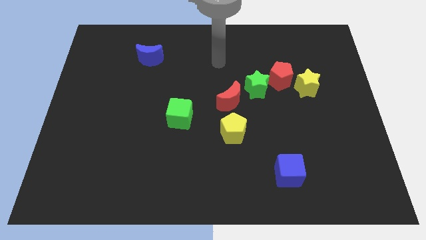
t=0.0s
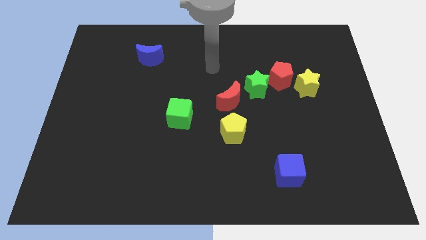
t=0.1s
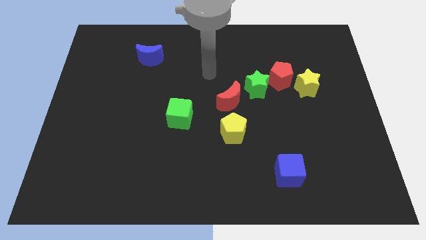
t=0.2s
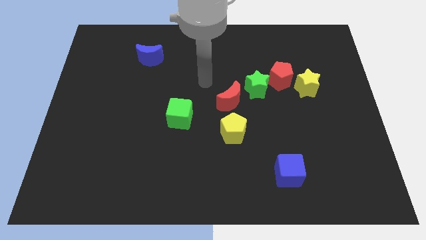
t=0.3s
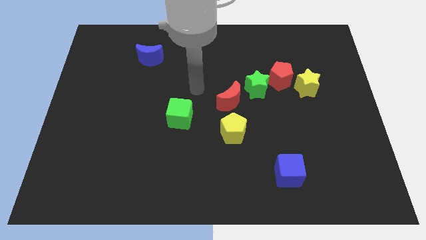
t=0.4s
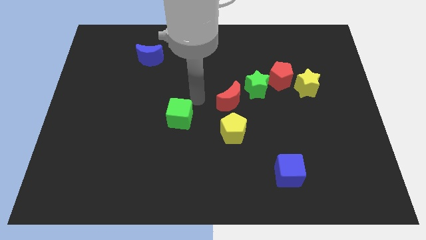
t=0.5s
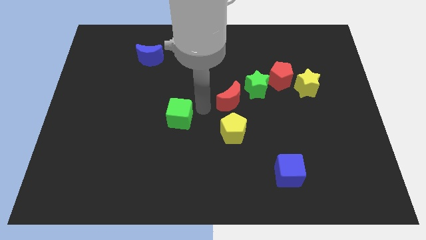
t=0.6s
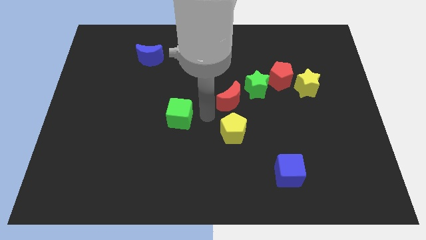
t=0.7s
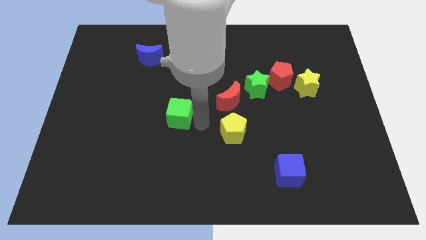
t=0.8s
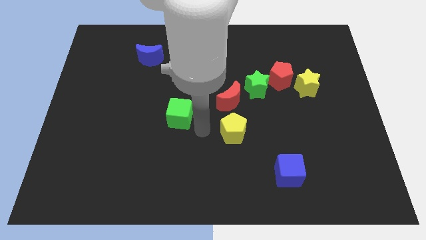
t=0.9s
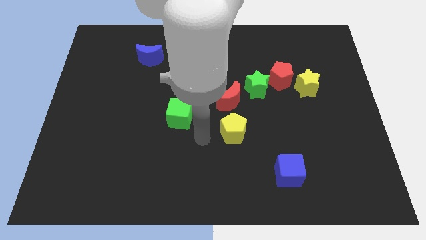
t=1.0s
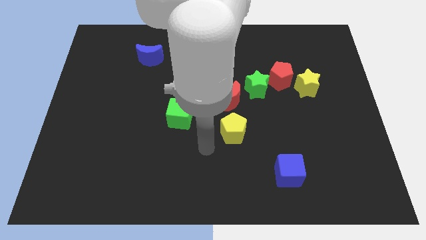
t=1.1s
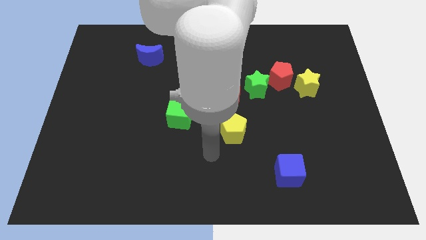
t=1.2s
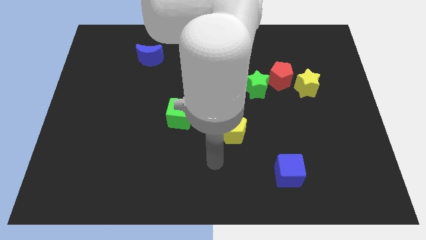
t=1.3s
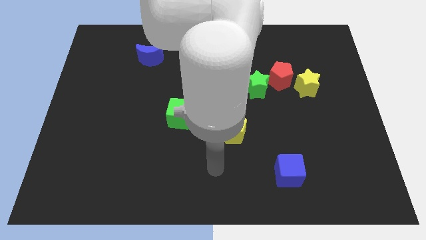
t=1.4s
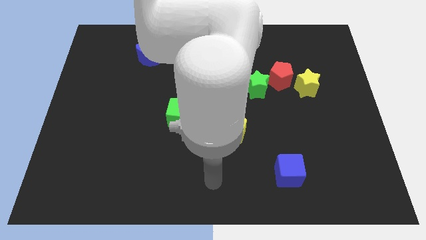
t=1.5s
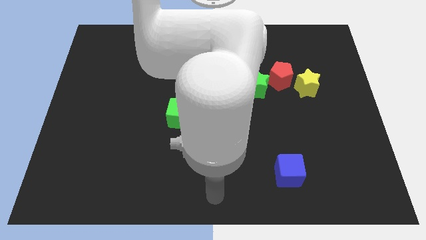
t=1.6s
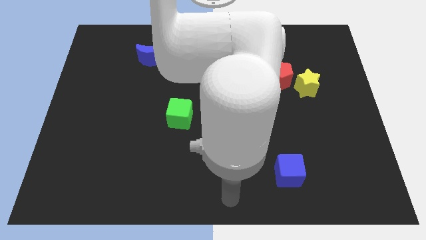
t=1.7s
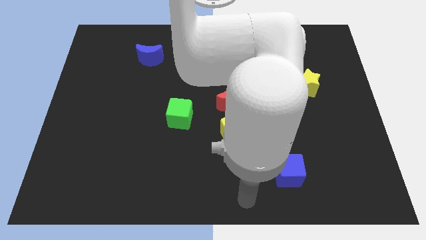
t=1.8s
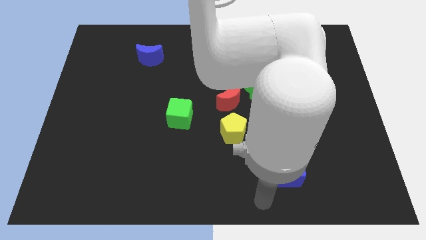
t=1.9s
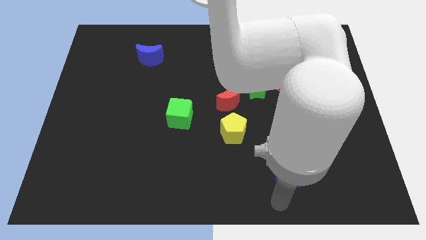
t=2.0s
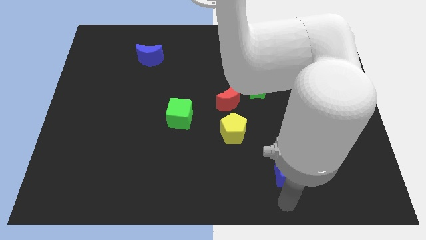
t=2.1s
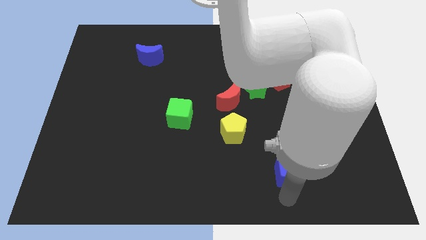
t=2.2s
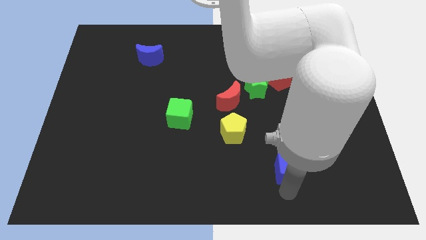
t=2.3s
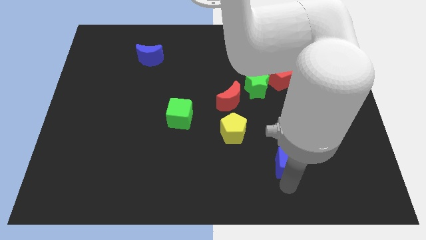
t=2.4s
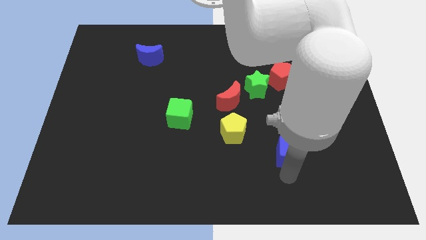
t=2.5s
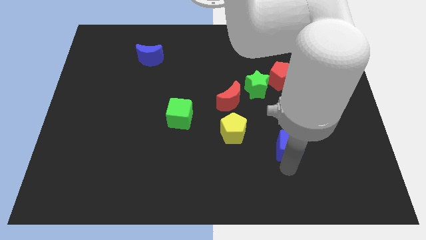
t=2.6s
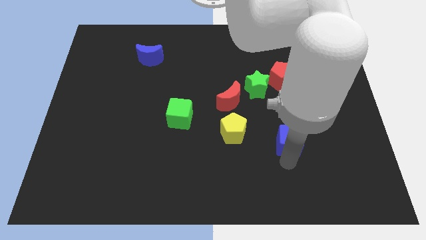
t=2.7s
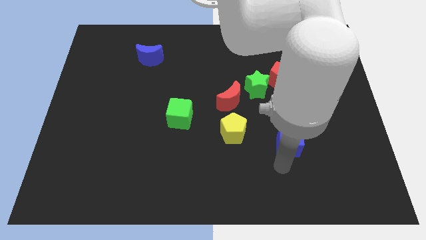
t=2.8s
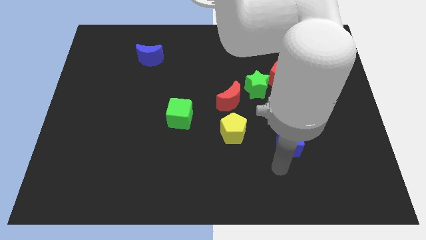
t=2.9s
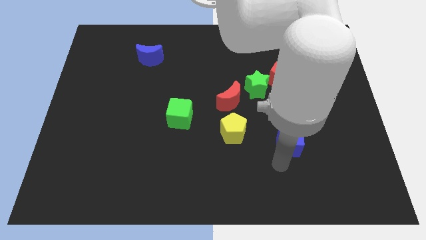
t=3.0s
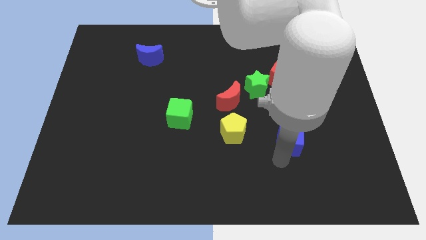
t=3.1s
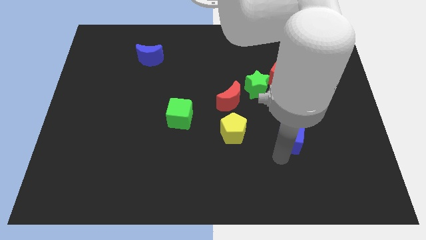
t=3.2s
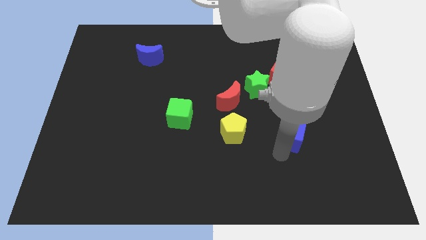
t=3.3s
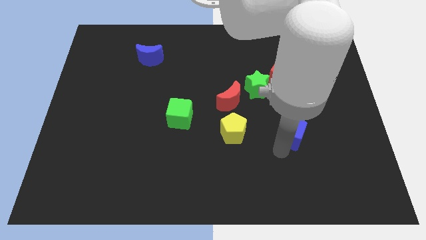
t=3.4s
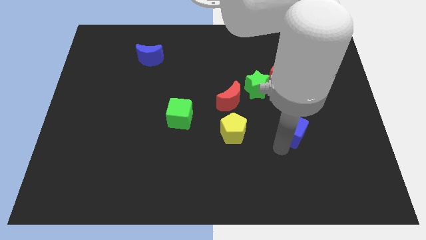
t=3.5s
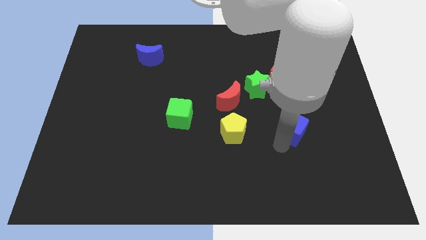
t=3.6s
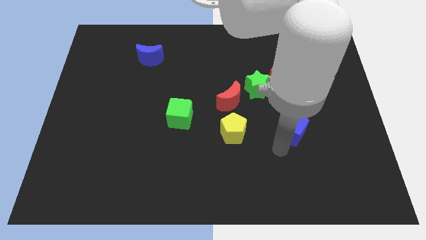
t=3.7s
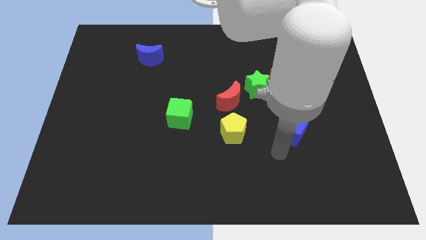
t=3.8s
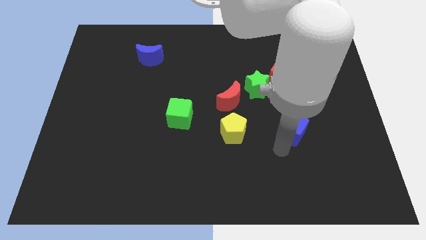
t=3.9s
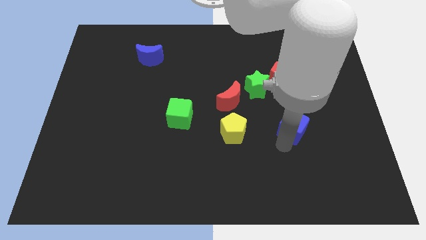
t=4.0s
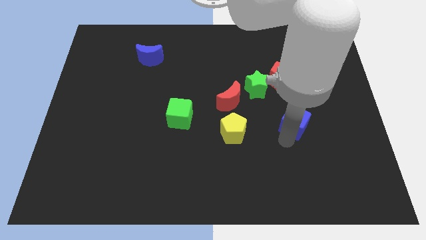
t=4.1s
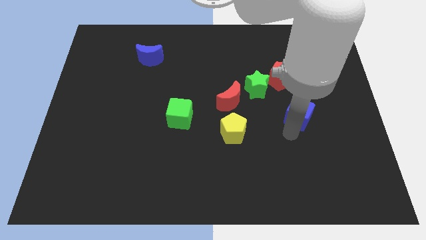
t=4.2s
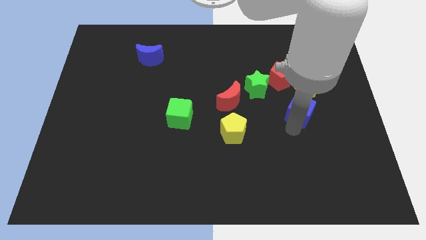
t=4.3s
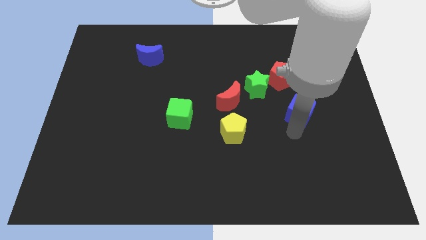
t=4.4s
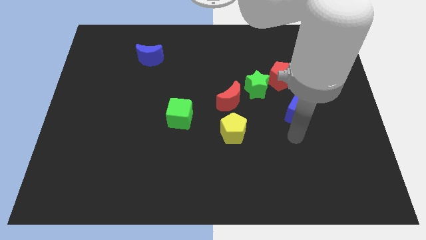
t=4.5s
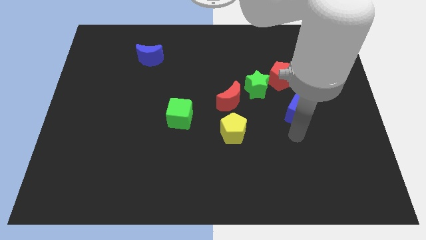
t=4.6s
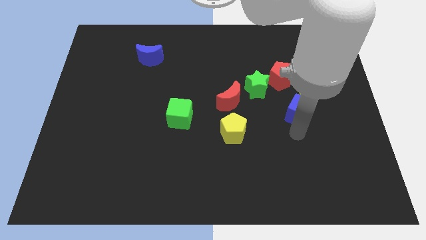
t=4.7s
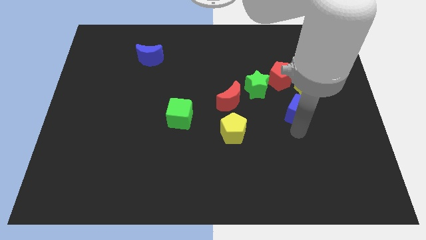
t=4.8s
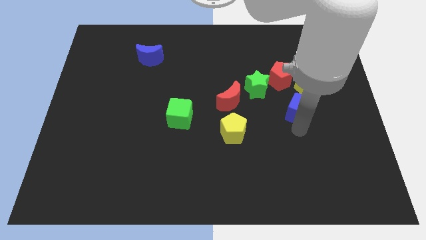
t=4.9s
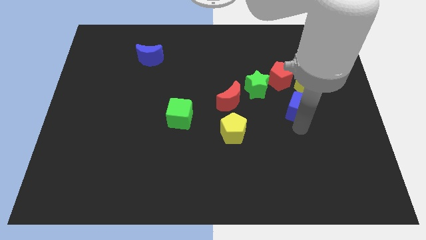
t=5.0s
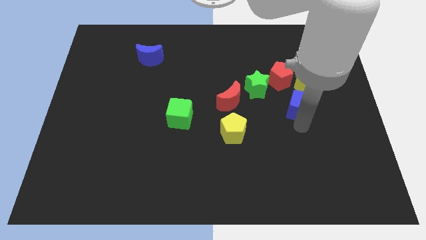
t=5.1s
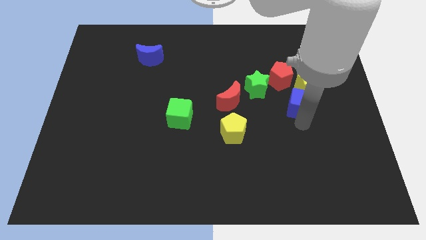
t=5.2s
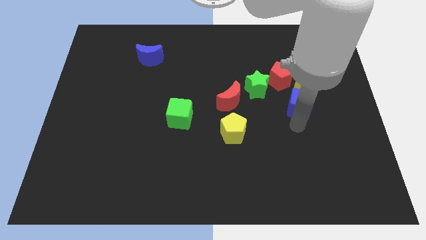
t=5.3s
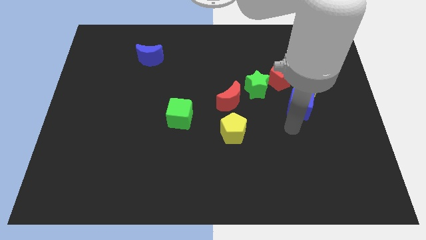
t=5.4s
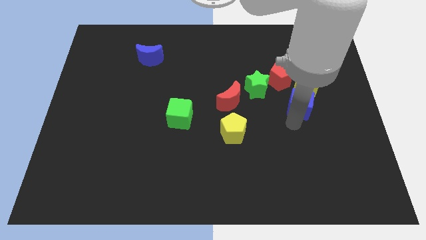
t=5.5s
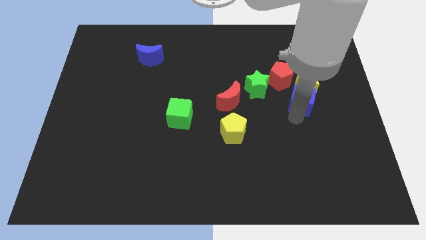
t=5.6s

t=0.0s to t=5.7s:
push the blue cube towards the yellow star

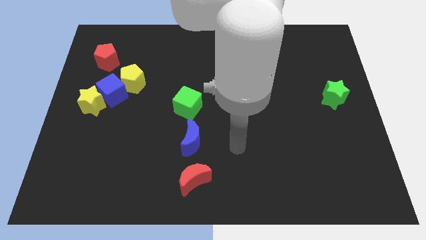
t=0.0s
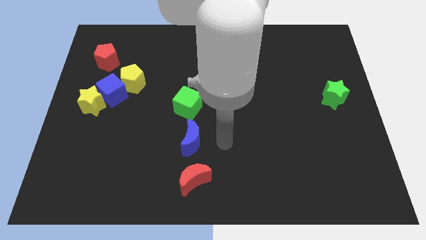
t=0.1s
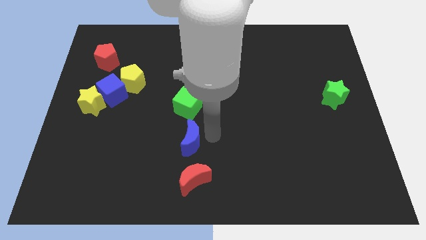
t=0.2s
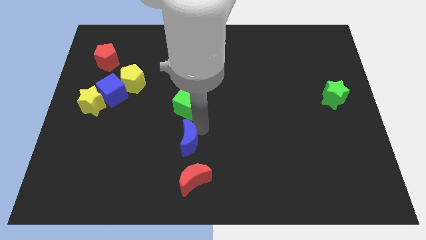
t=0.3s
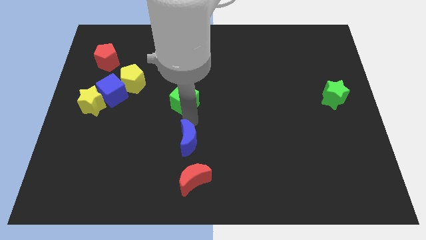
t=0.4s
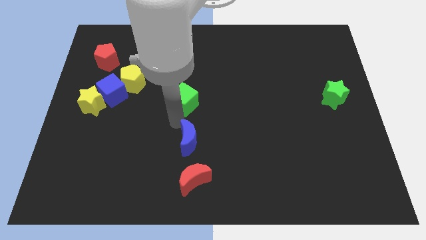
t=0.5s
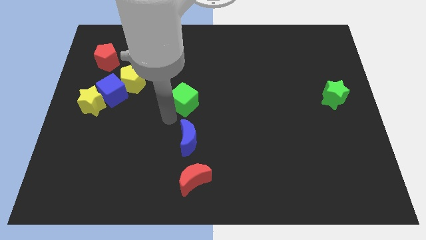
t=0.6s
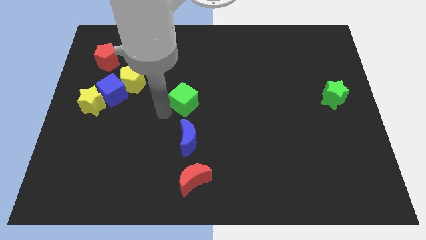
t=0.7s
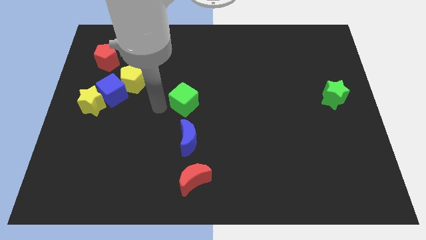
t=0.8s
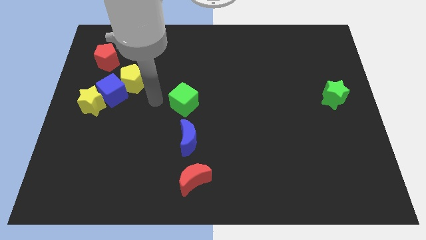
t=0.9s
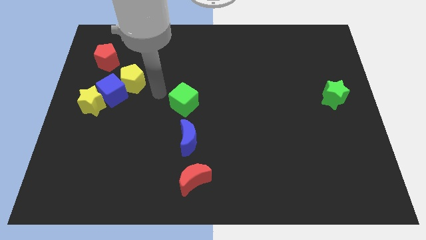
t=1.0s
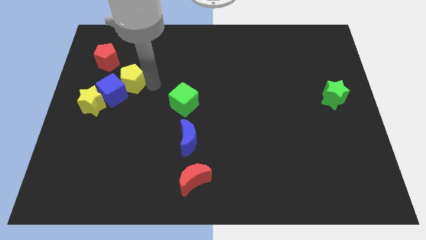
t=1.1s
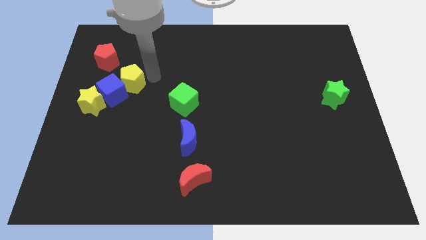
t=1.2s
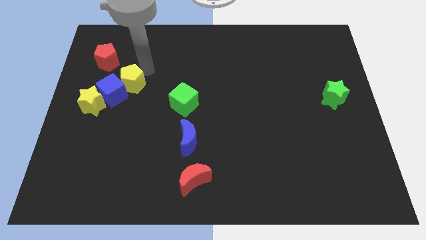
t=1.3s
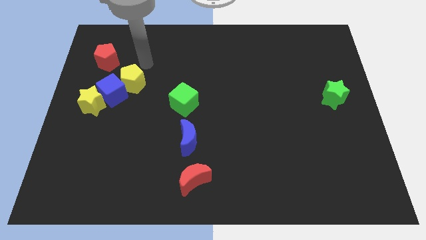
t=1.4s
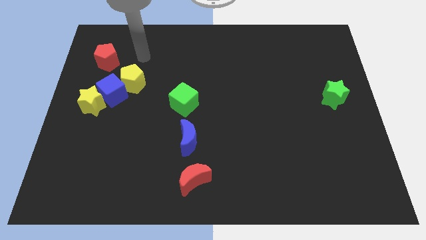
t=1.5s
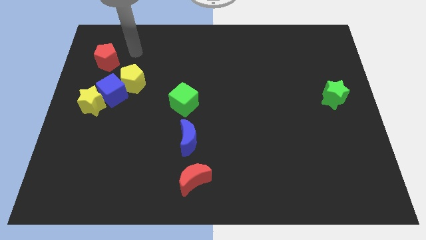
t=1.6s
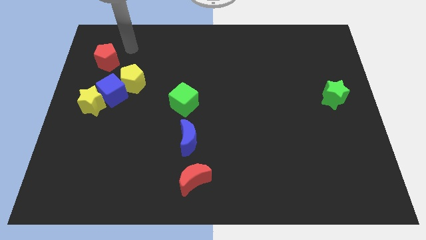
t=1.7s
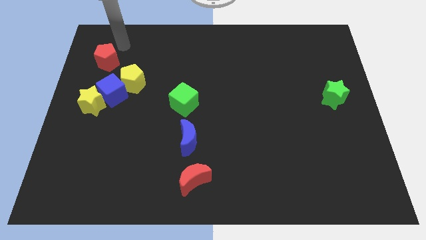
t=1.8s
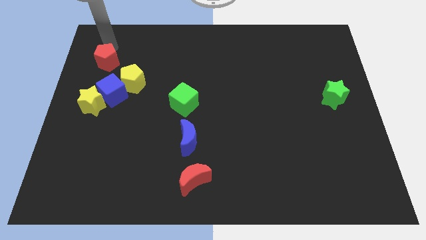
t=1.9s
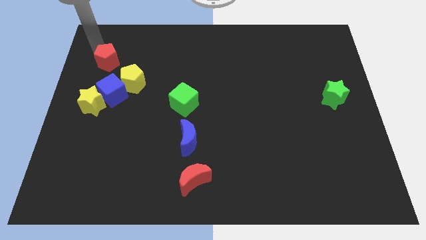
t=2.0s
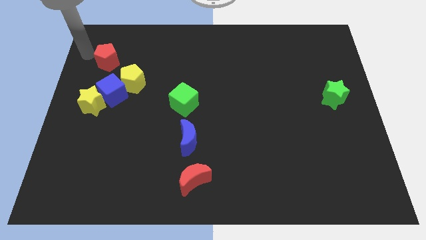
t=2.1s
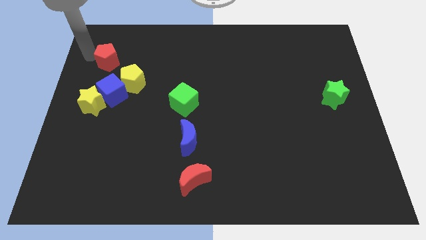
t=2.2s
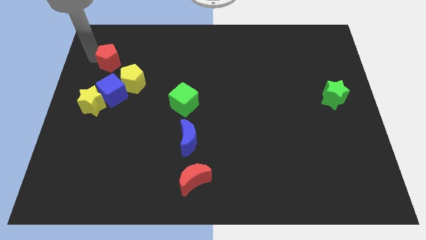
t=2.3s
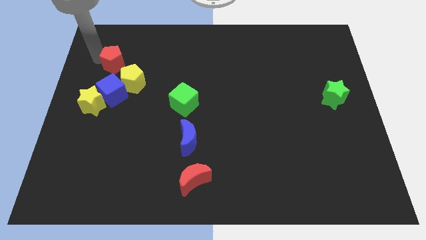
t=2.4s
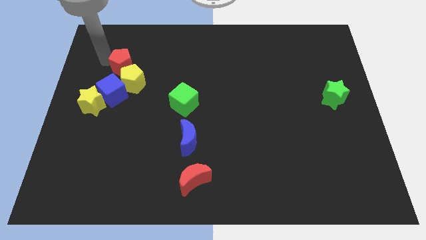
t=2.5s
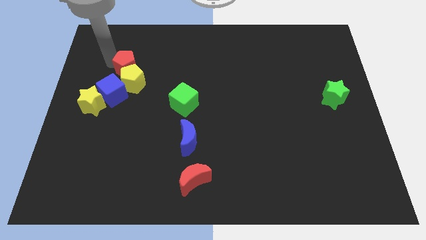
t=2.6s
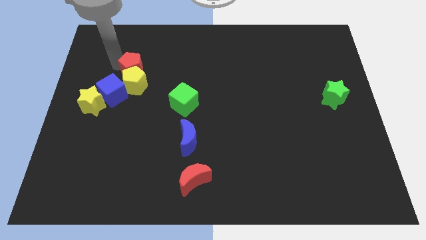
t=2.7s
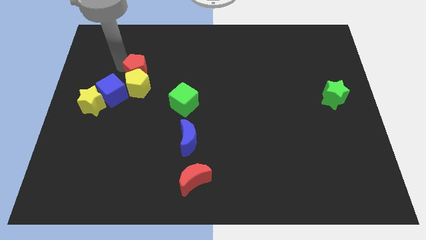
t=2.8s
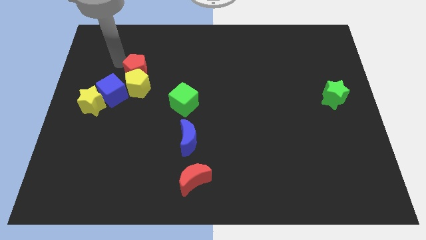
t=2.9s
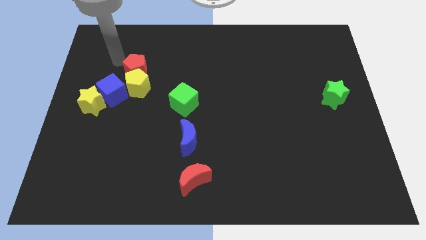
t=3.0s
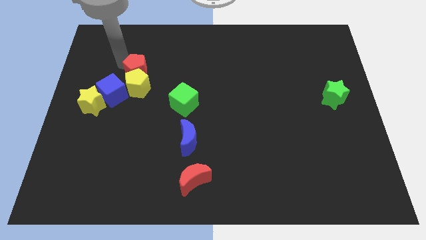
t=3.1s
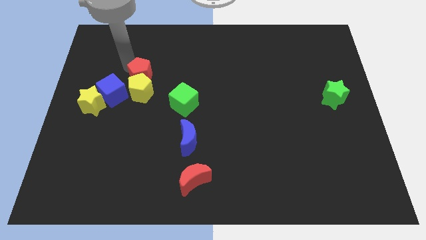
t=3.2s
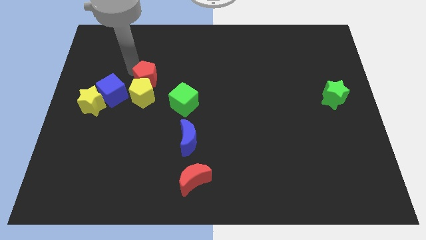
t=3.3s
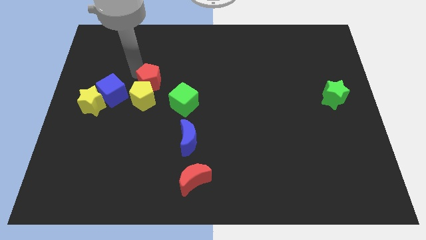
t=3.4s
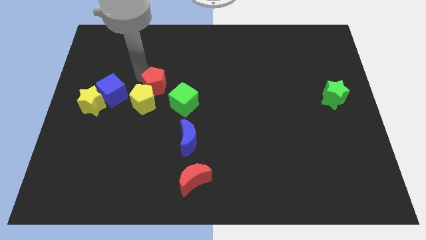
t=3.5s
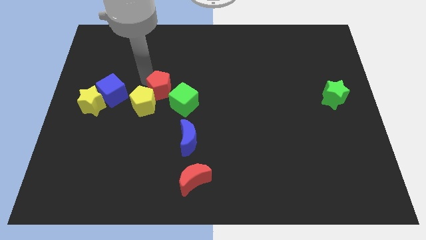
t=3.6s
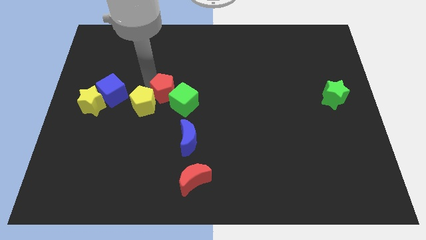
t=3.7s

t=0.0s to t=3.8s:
slide the red pentagon close to the green cube
